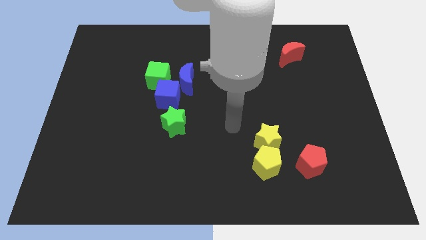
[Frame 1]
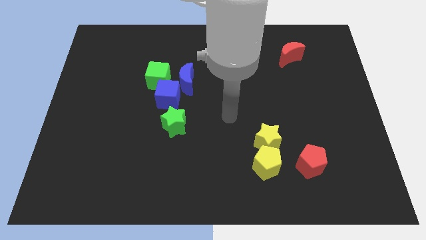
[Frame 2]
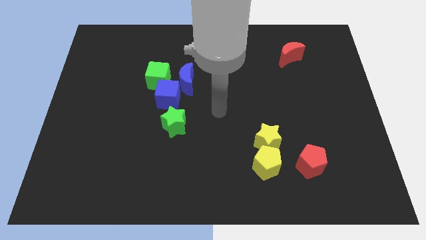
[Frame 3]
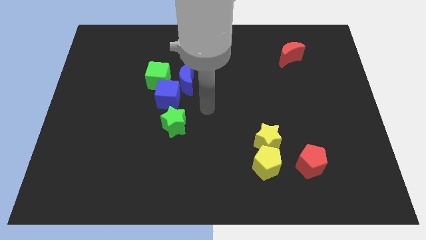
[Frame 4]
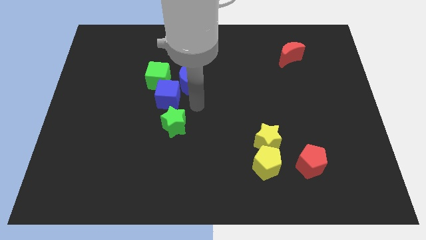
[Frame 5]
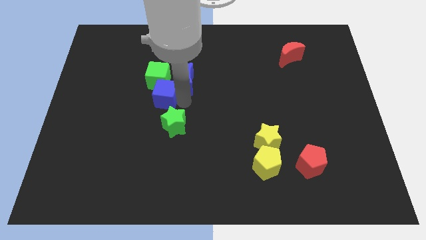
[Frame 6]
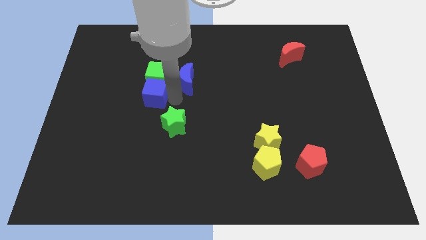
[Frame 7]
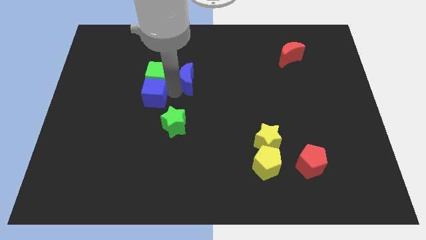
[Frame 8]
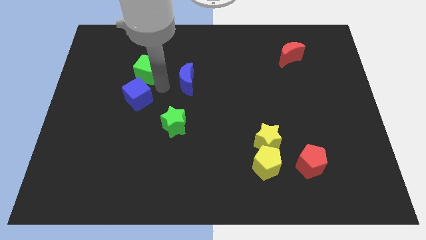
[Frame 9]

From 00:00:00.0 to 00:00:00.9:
separate the blue moon from the blue cube and green cube

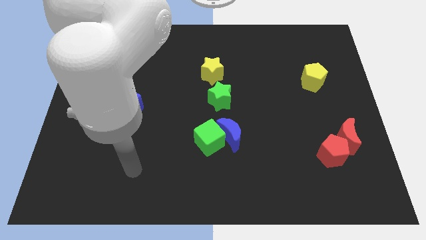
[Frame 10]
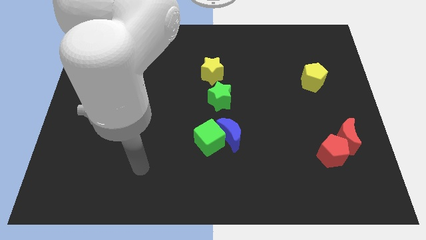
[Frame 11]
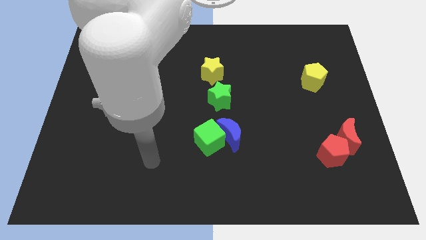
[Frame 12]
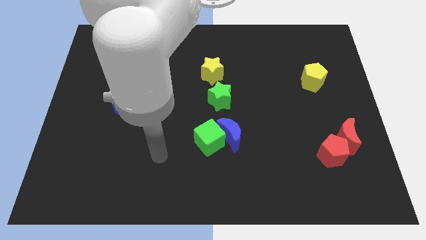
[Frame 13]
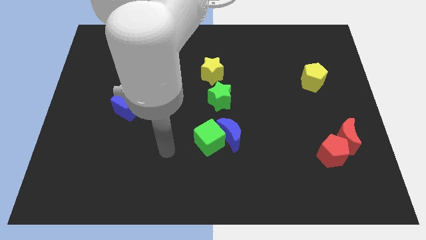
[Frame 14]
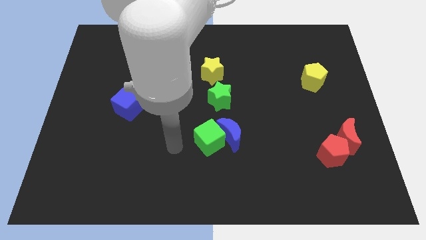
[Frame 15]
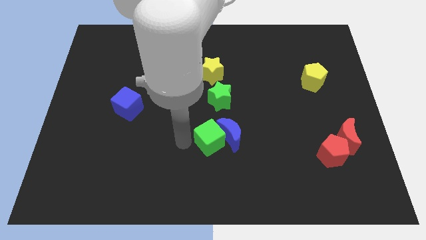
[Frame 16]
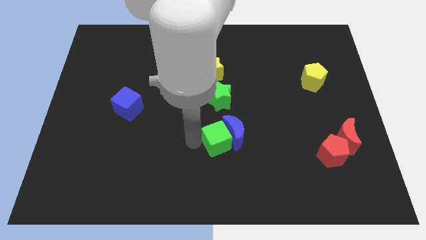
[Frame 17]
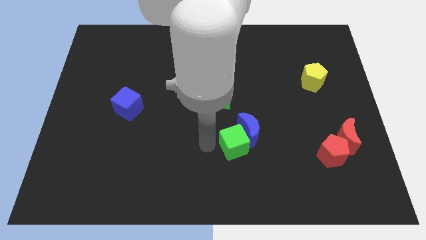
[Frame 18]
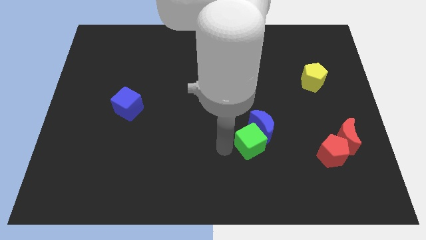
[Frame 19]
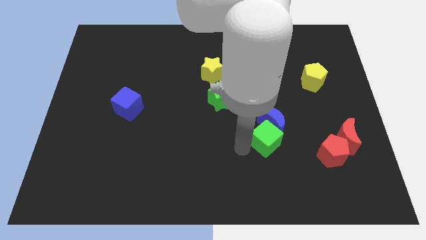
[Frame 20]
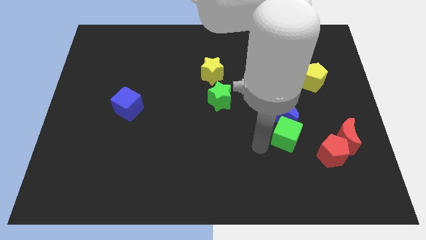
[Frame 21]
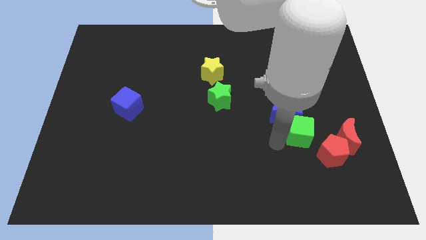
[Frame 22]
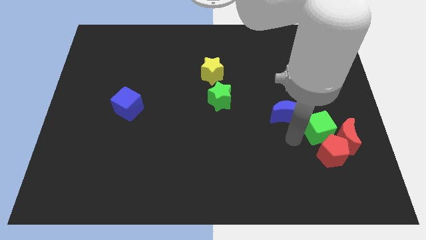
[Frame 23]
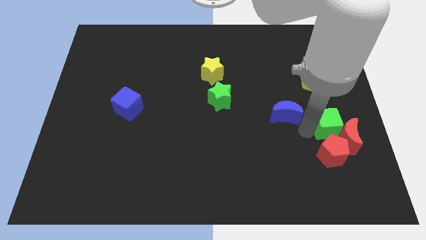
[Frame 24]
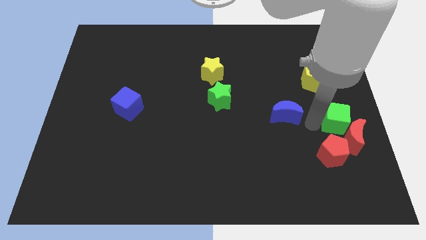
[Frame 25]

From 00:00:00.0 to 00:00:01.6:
separate the blue moon from the green cube

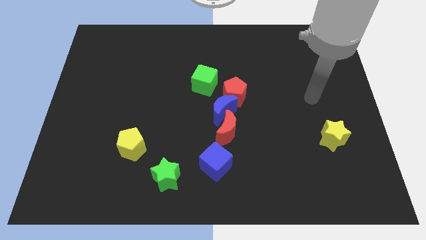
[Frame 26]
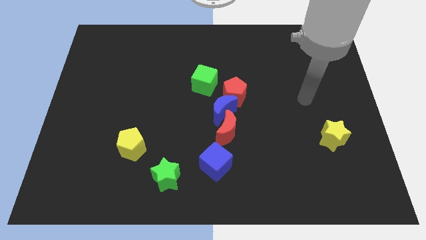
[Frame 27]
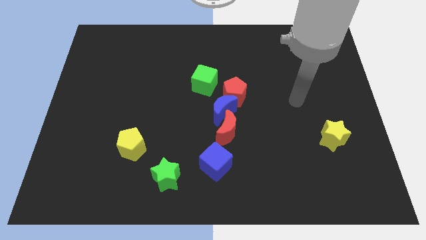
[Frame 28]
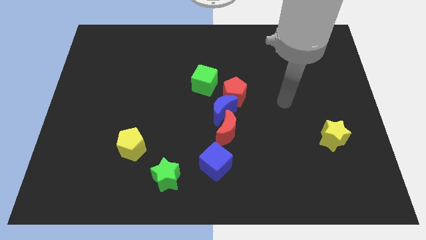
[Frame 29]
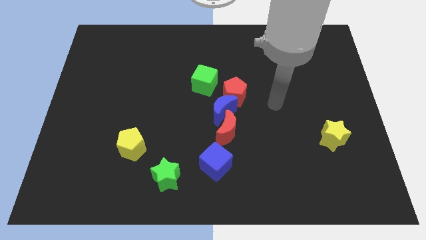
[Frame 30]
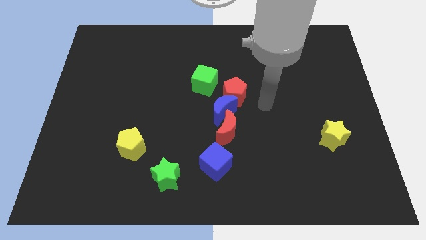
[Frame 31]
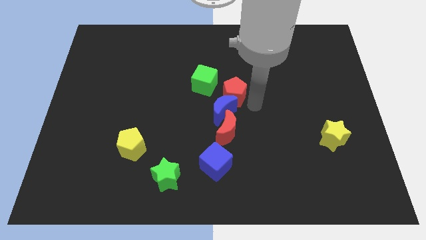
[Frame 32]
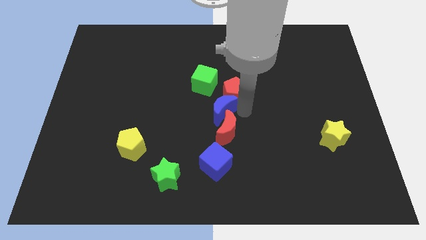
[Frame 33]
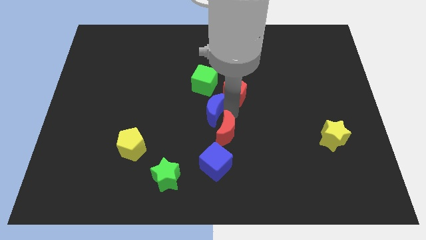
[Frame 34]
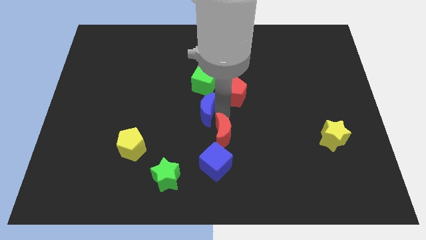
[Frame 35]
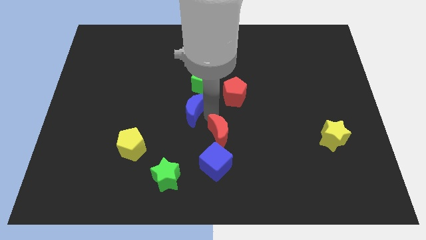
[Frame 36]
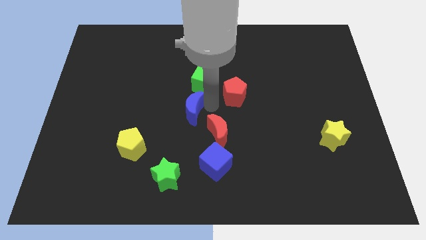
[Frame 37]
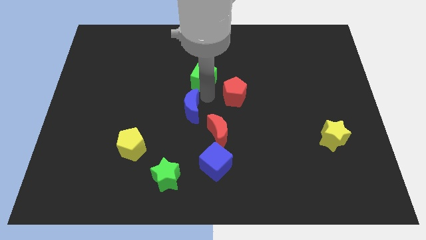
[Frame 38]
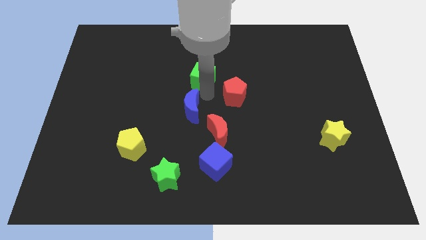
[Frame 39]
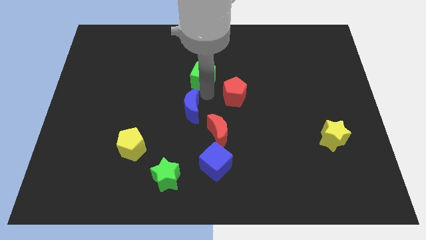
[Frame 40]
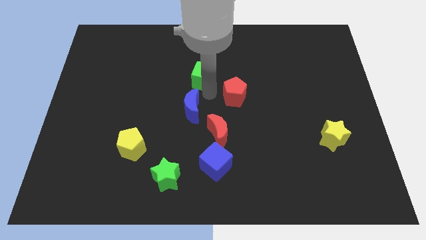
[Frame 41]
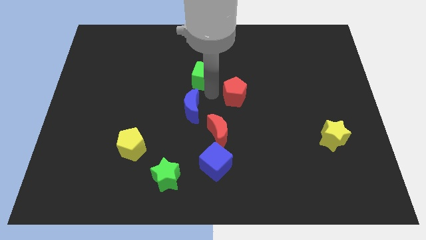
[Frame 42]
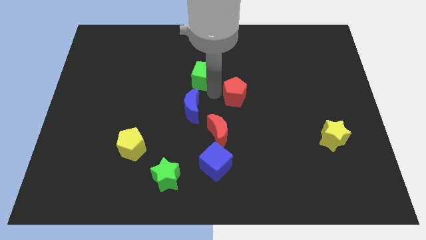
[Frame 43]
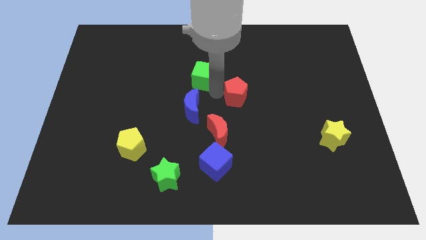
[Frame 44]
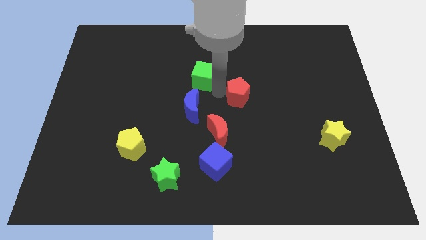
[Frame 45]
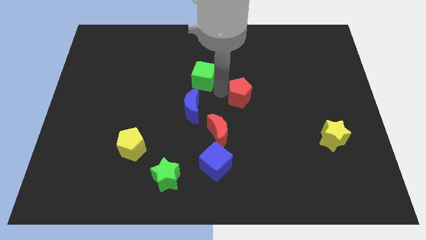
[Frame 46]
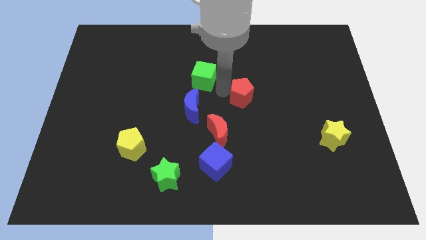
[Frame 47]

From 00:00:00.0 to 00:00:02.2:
pull the red pentagon apart from the blue moon and green cube

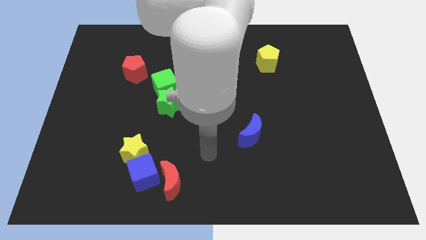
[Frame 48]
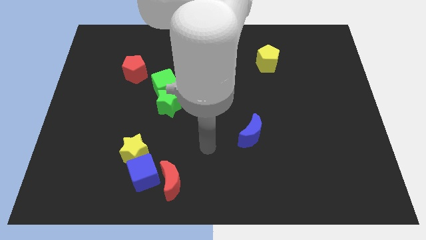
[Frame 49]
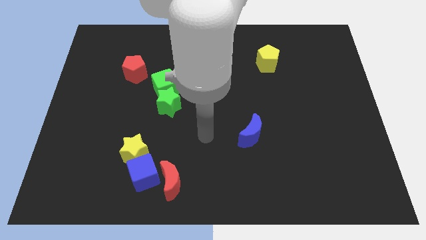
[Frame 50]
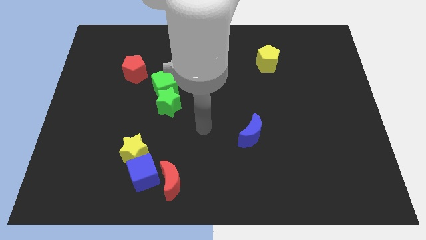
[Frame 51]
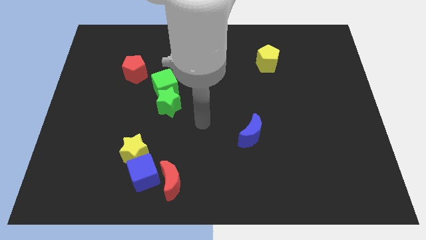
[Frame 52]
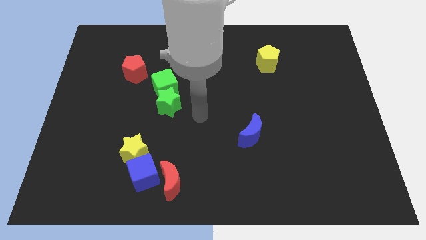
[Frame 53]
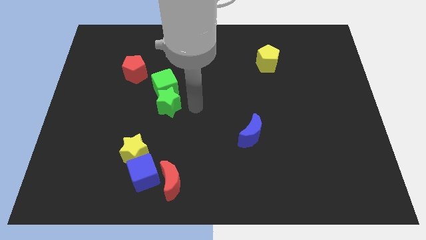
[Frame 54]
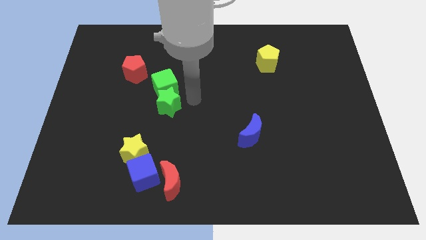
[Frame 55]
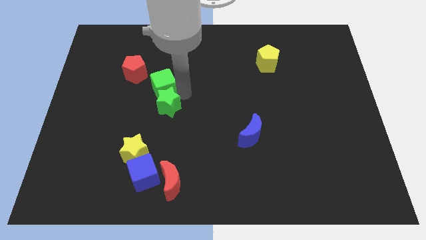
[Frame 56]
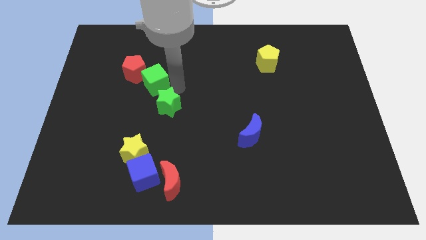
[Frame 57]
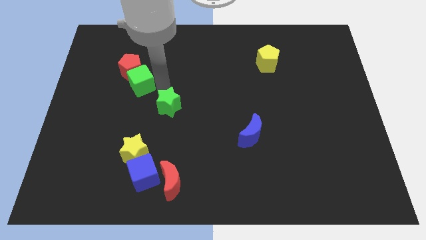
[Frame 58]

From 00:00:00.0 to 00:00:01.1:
pull the green star apart from the green cube

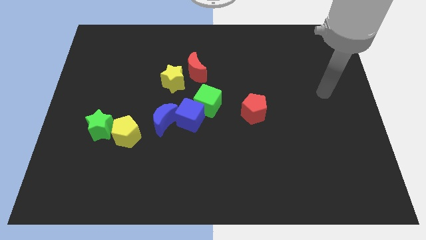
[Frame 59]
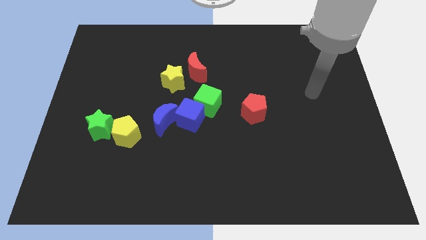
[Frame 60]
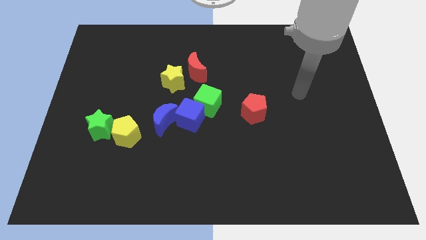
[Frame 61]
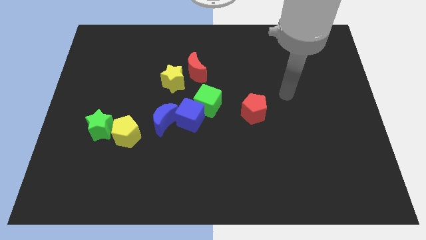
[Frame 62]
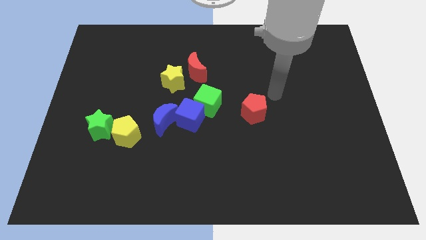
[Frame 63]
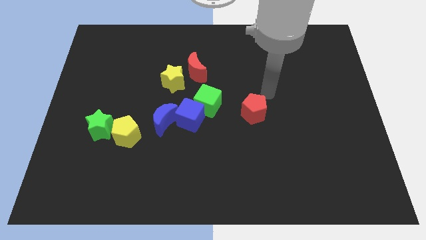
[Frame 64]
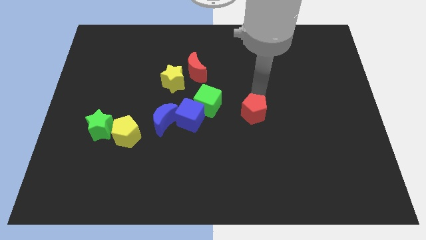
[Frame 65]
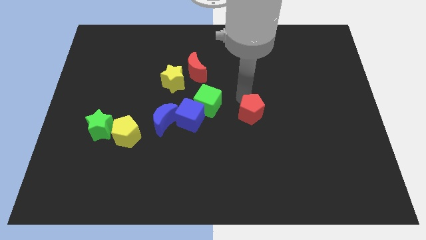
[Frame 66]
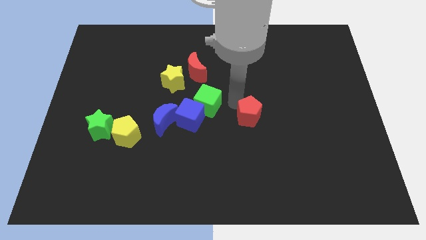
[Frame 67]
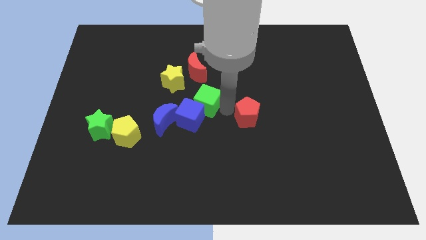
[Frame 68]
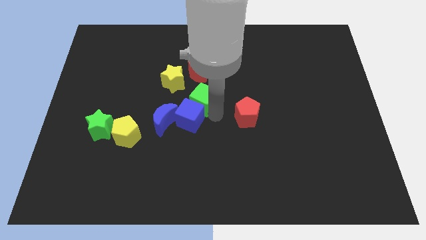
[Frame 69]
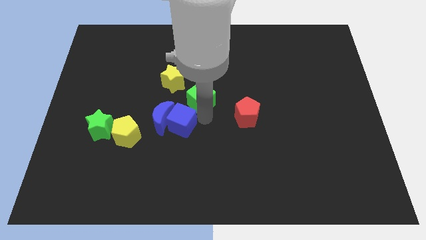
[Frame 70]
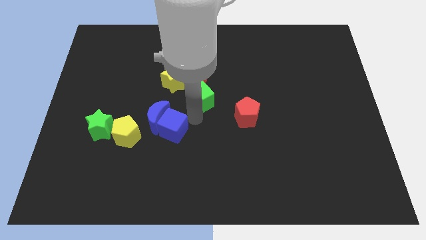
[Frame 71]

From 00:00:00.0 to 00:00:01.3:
move the green cube away from the blue cube

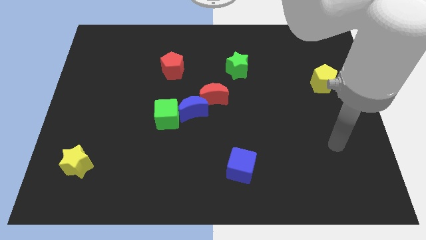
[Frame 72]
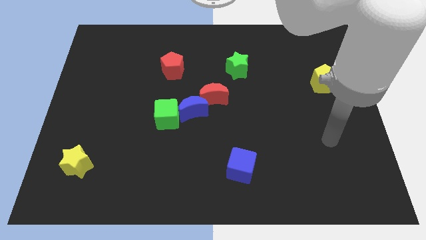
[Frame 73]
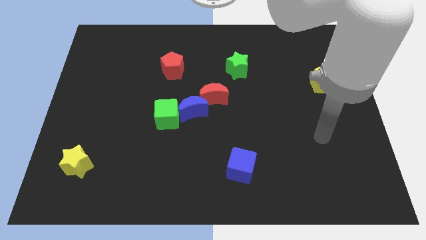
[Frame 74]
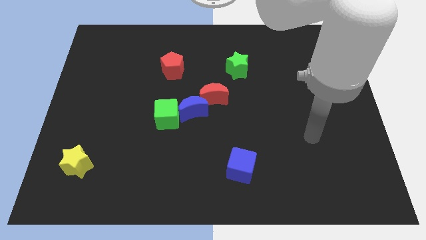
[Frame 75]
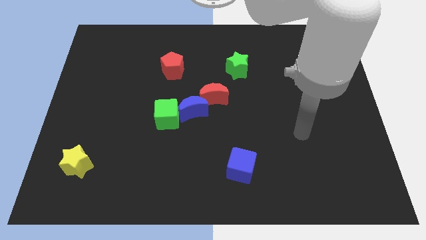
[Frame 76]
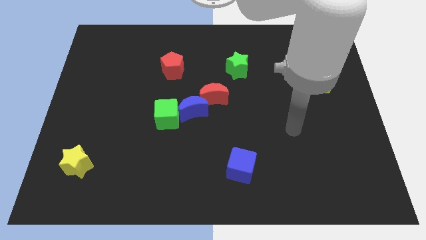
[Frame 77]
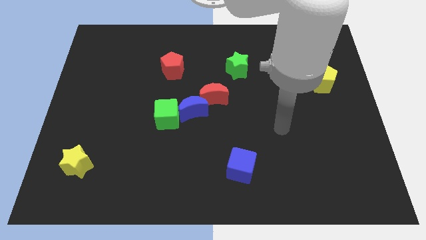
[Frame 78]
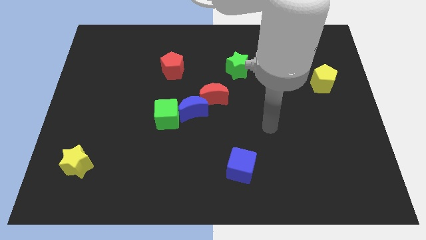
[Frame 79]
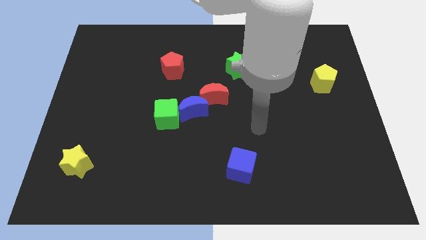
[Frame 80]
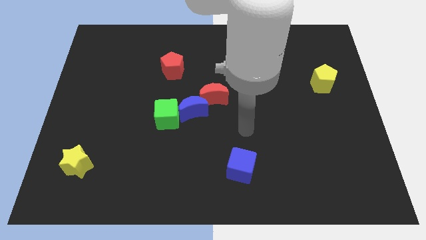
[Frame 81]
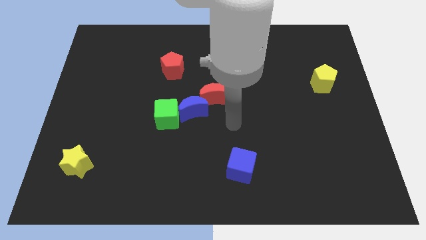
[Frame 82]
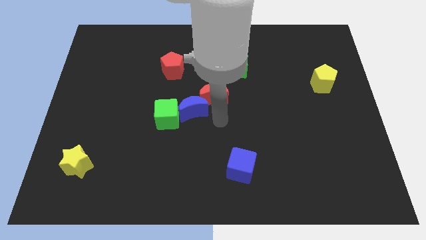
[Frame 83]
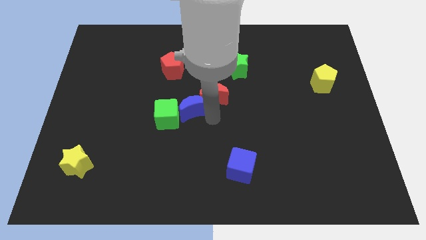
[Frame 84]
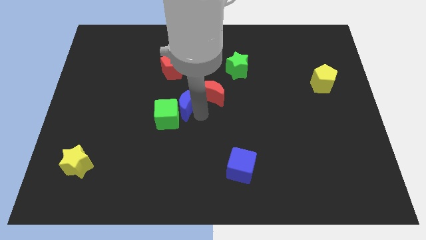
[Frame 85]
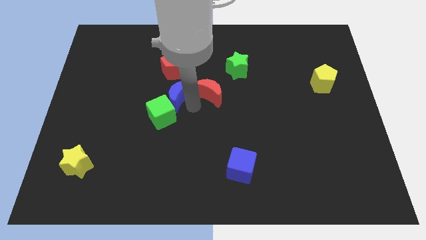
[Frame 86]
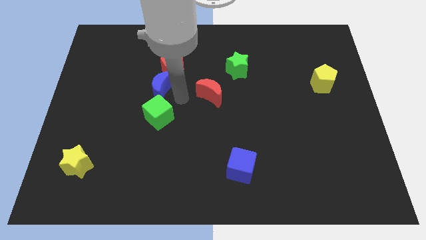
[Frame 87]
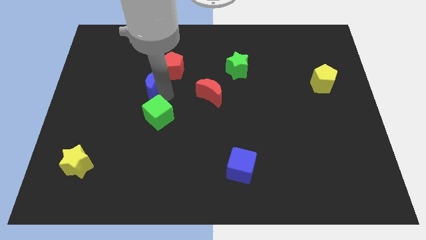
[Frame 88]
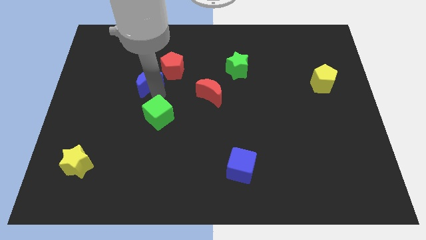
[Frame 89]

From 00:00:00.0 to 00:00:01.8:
pull the green cube apart from the blue moon

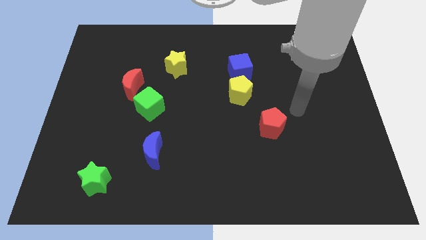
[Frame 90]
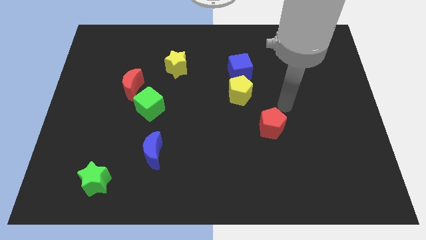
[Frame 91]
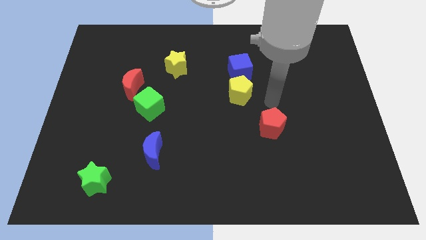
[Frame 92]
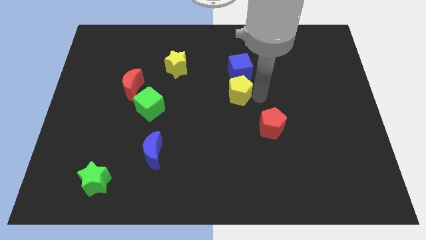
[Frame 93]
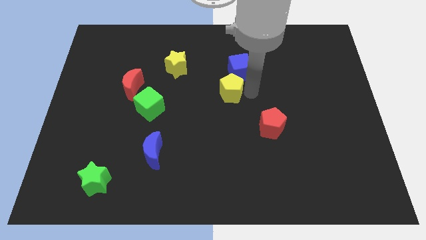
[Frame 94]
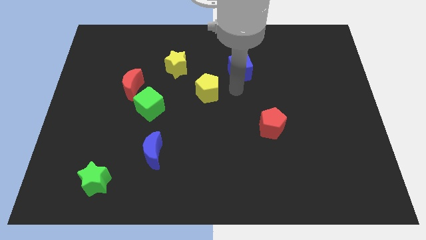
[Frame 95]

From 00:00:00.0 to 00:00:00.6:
pull the blue cube apart from the yellow pentagon
